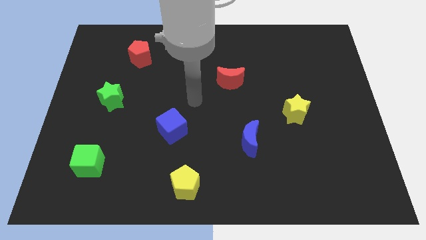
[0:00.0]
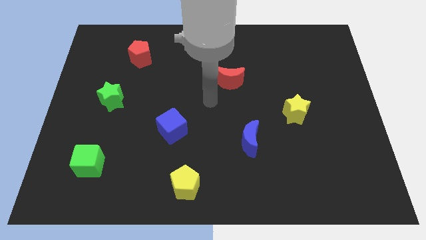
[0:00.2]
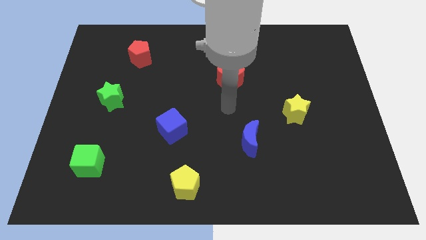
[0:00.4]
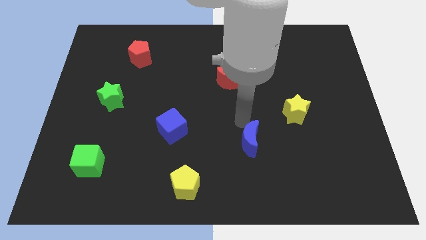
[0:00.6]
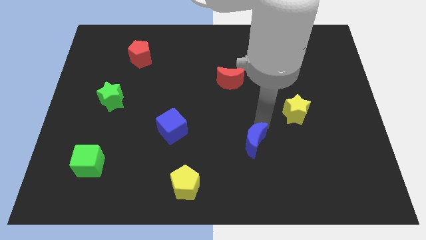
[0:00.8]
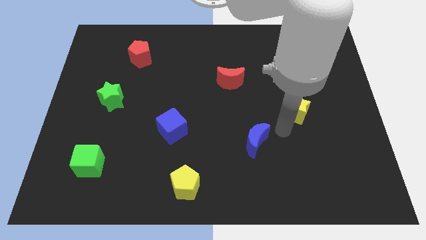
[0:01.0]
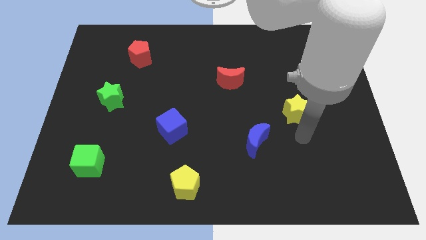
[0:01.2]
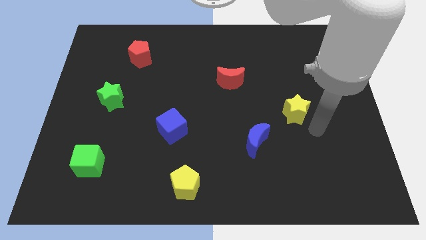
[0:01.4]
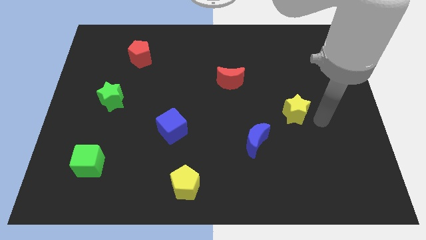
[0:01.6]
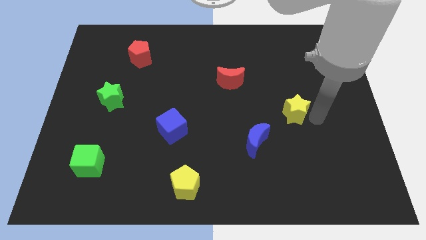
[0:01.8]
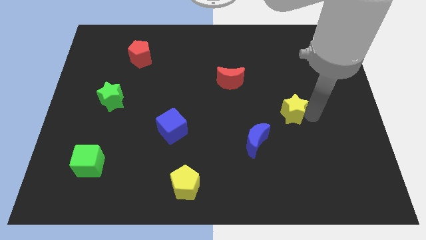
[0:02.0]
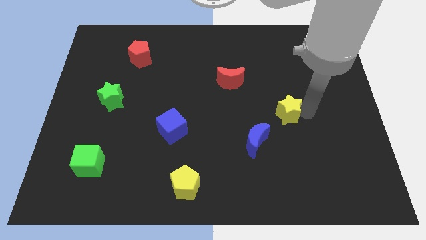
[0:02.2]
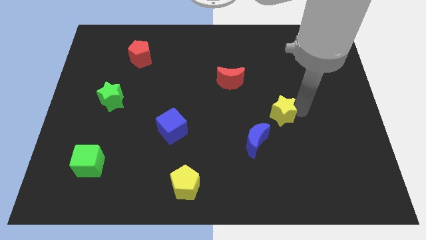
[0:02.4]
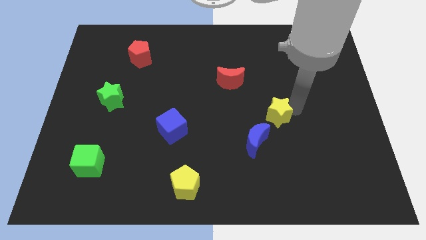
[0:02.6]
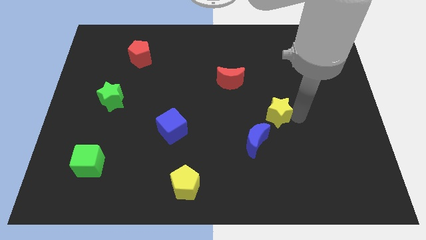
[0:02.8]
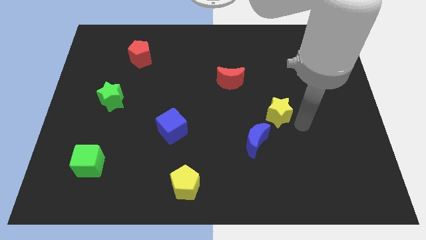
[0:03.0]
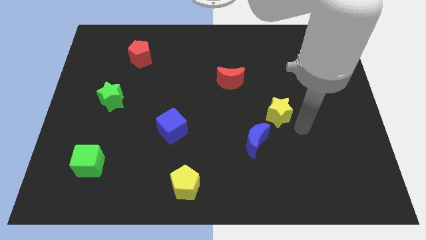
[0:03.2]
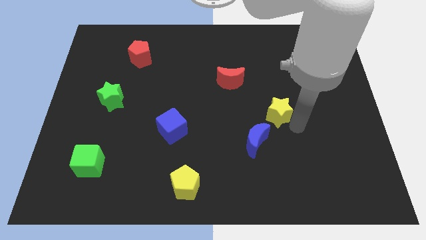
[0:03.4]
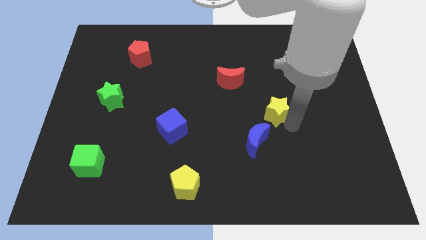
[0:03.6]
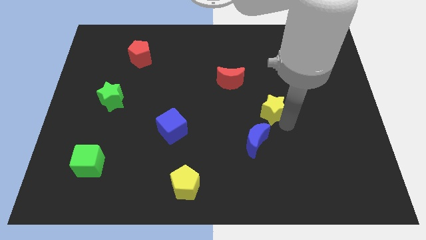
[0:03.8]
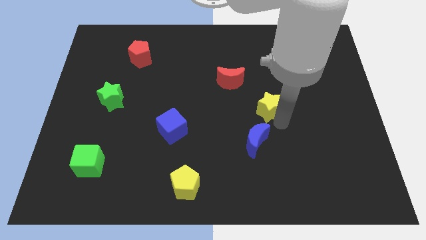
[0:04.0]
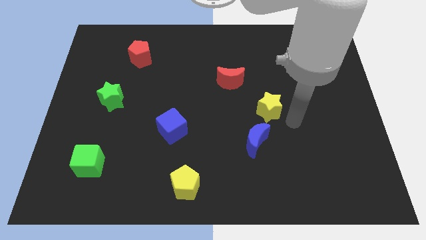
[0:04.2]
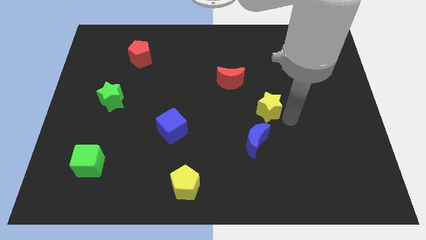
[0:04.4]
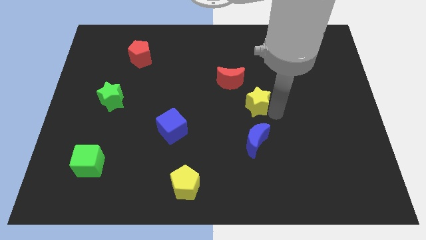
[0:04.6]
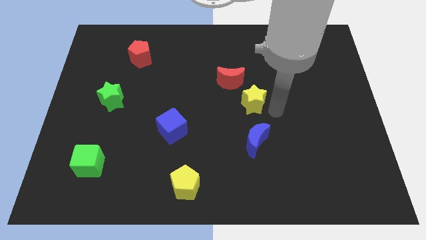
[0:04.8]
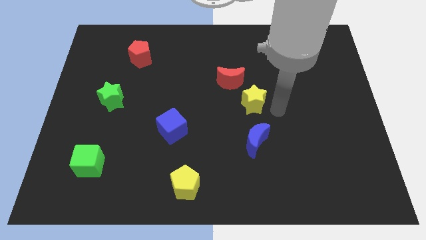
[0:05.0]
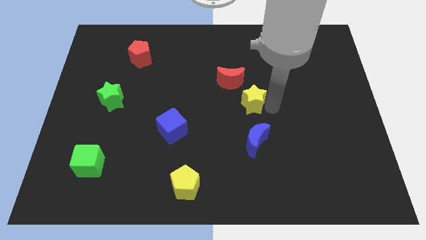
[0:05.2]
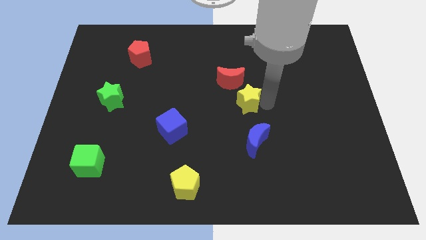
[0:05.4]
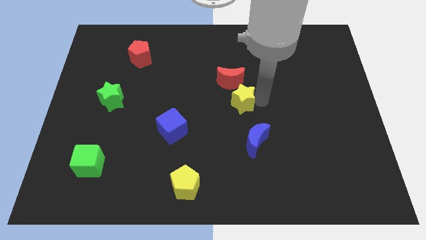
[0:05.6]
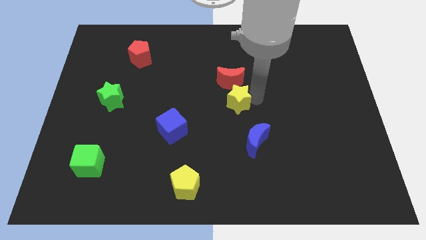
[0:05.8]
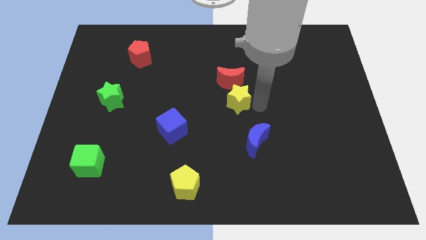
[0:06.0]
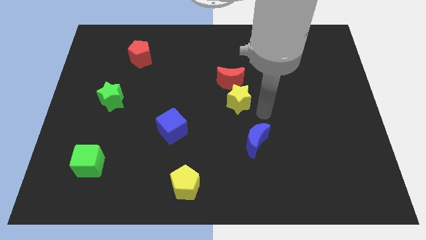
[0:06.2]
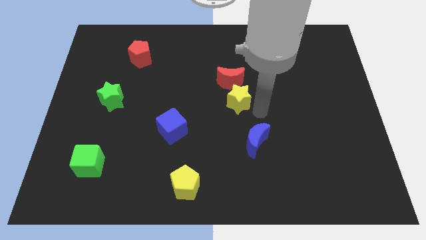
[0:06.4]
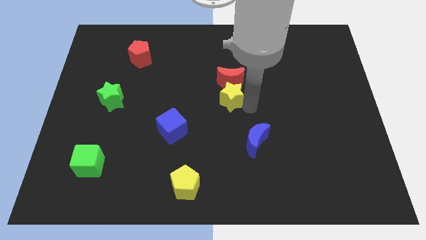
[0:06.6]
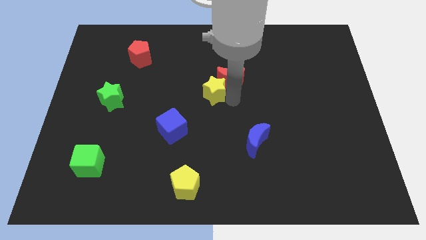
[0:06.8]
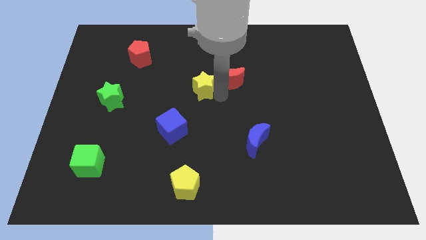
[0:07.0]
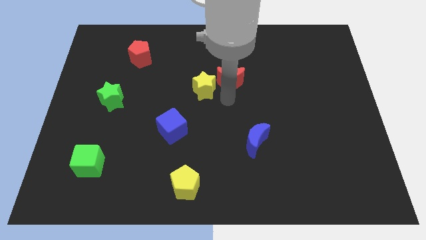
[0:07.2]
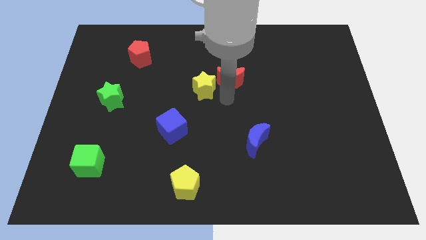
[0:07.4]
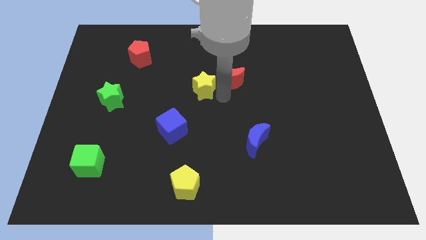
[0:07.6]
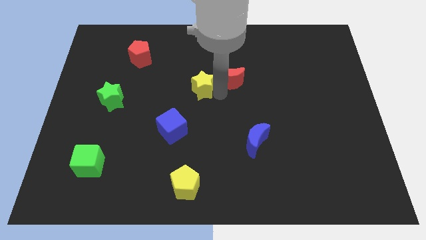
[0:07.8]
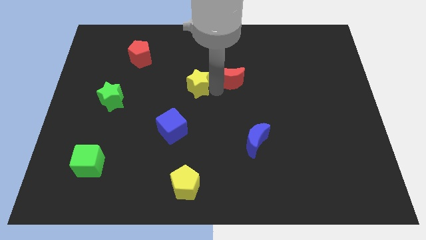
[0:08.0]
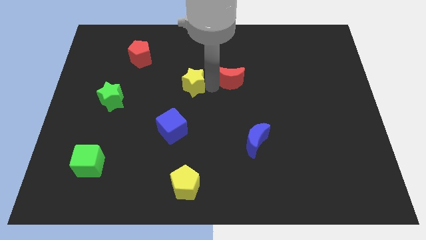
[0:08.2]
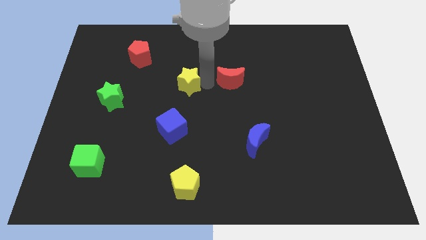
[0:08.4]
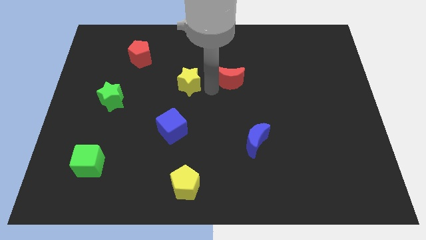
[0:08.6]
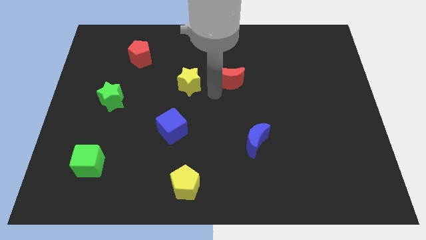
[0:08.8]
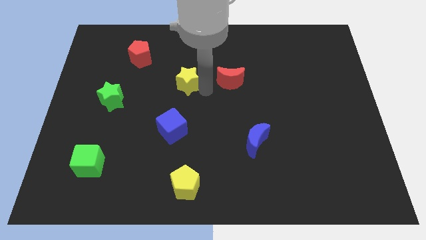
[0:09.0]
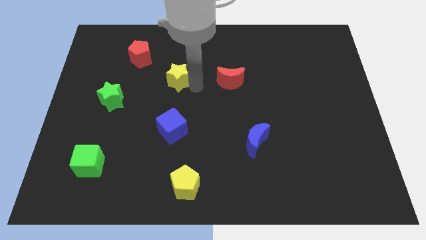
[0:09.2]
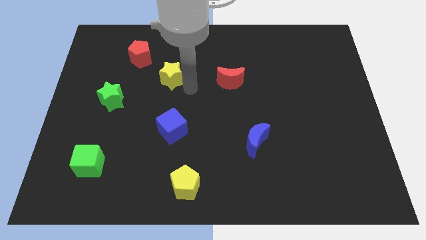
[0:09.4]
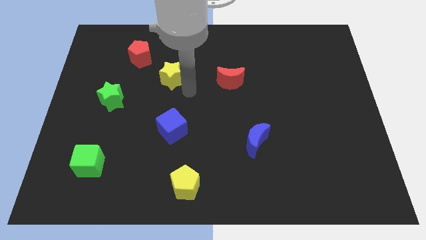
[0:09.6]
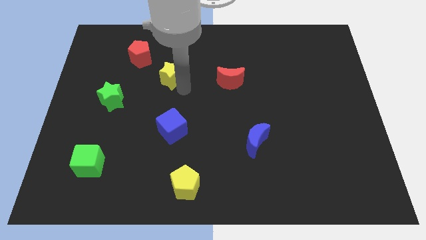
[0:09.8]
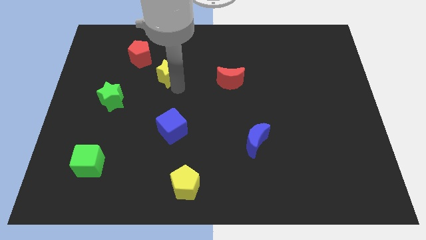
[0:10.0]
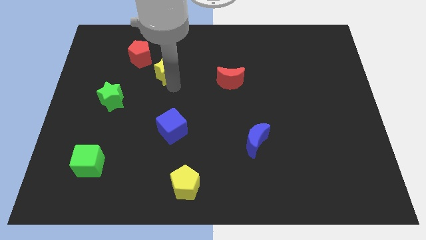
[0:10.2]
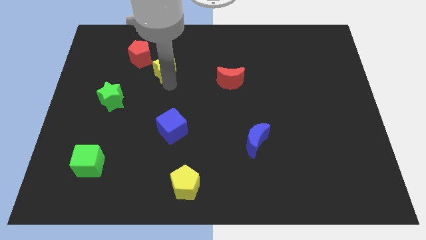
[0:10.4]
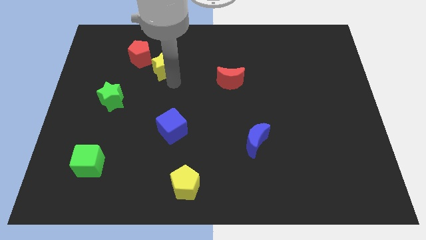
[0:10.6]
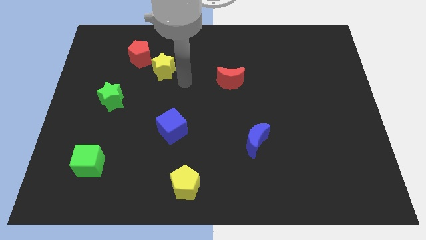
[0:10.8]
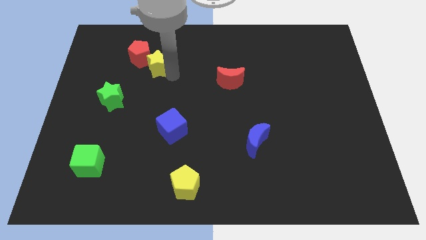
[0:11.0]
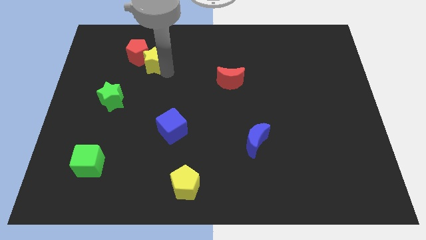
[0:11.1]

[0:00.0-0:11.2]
push the yellow star next to the red pentagon
